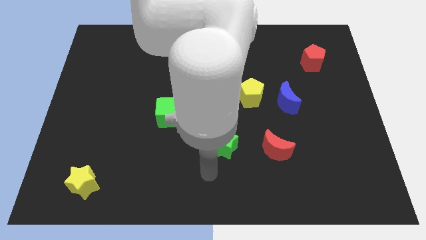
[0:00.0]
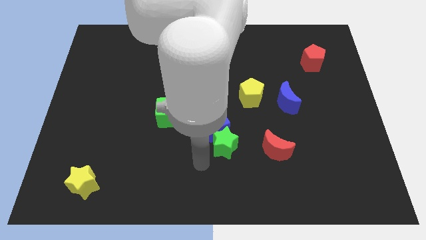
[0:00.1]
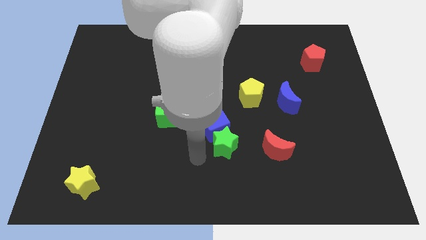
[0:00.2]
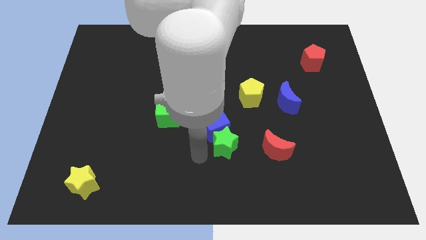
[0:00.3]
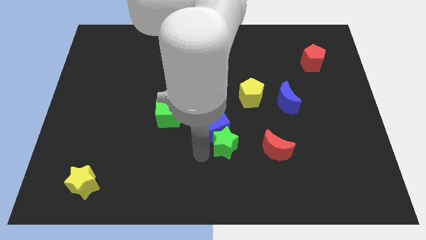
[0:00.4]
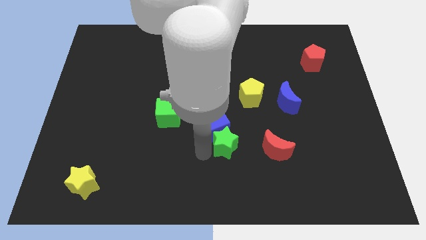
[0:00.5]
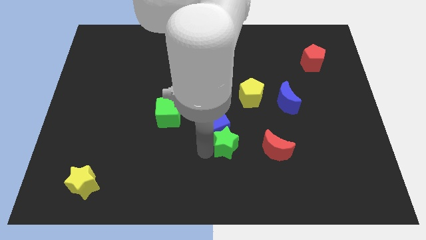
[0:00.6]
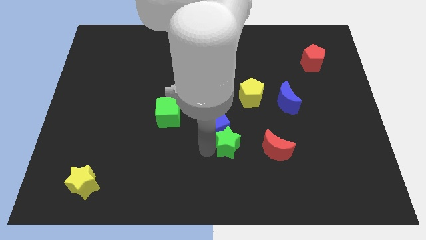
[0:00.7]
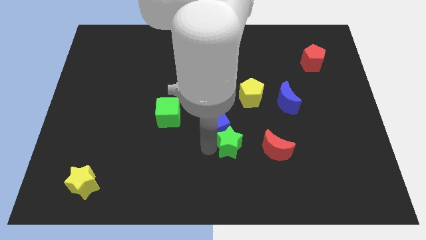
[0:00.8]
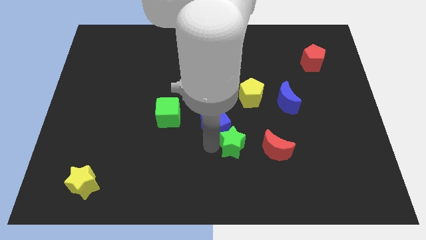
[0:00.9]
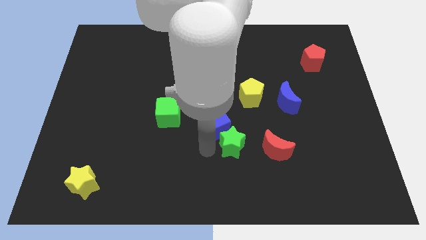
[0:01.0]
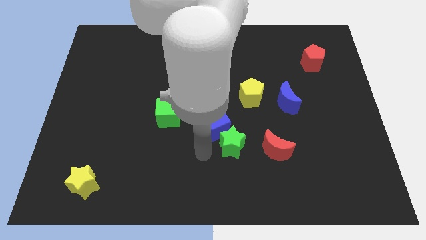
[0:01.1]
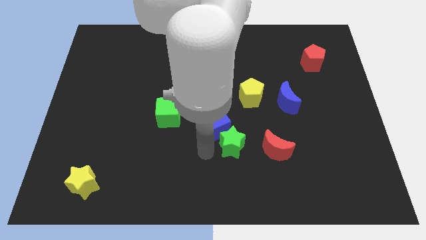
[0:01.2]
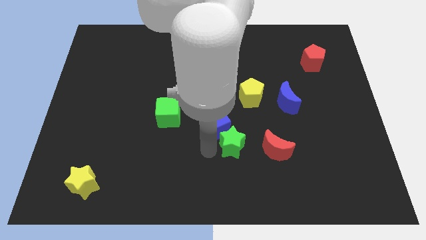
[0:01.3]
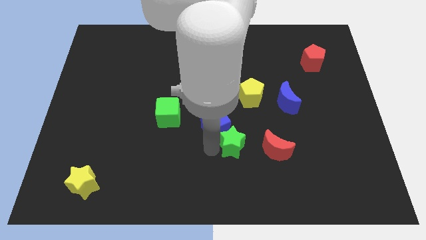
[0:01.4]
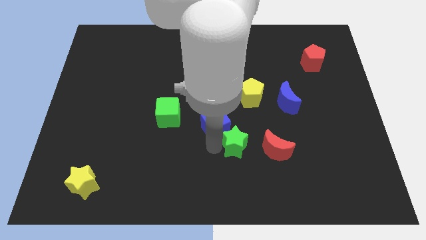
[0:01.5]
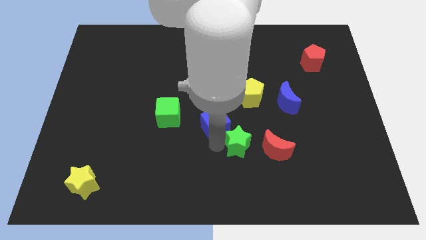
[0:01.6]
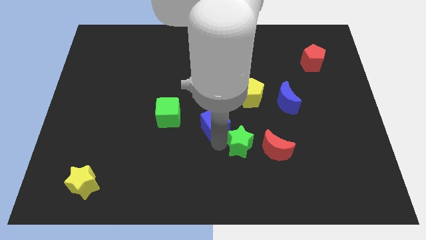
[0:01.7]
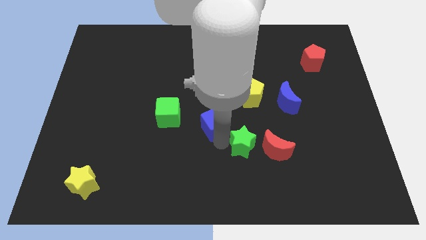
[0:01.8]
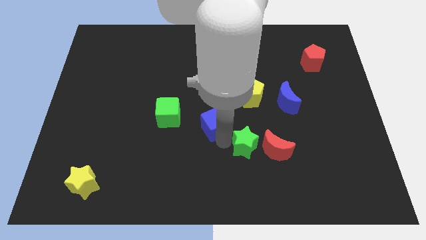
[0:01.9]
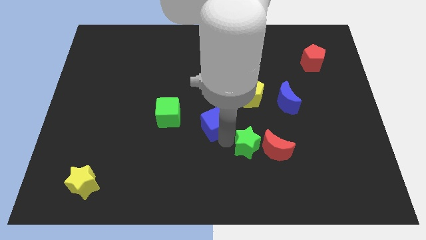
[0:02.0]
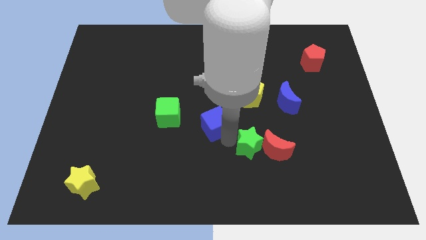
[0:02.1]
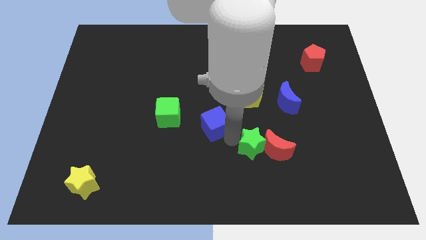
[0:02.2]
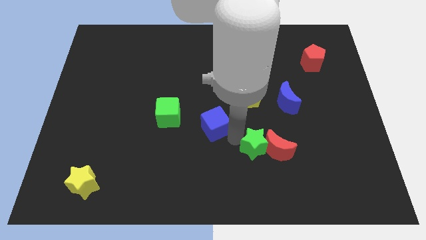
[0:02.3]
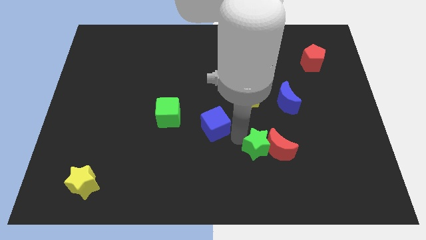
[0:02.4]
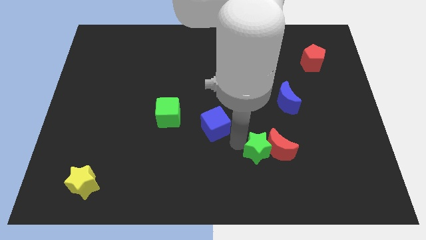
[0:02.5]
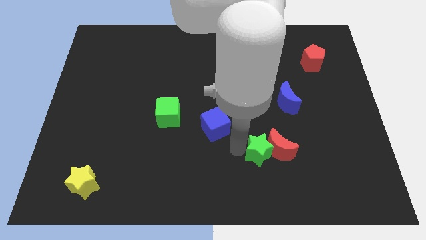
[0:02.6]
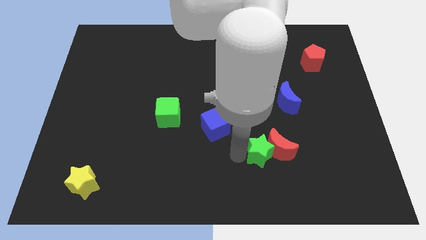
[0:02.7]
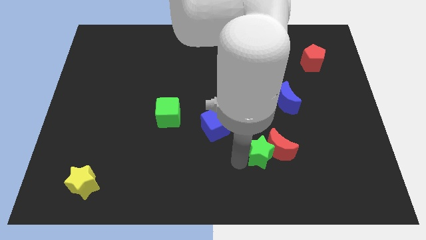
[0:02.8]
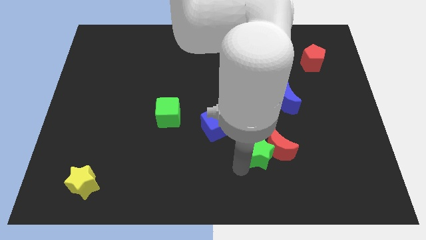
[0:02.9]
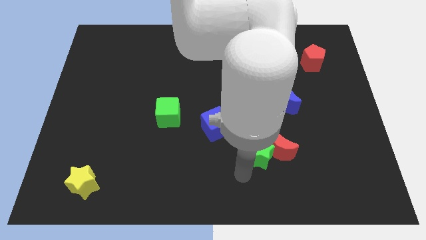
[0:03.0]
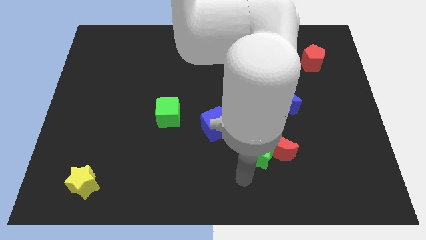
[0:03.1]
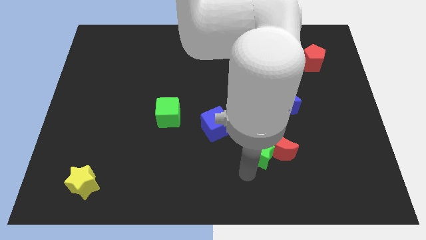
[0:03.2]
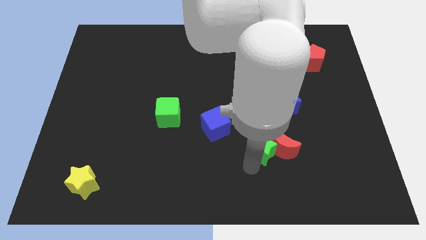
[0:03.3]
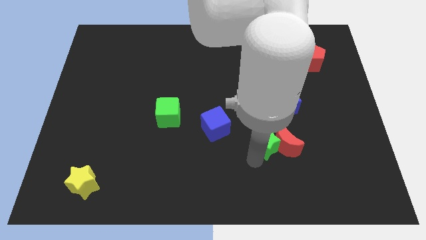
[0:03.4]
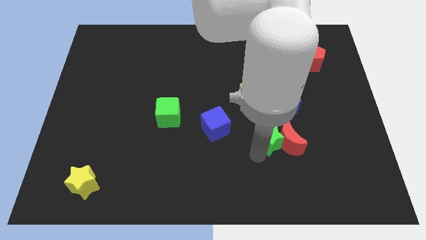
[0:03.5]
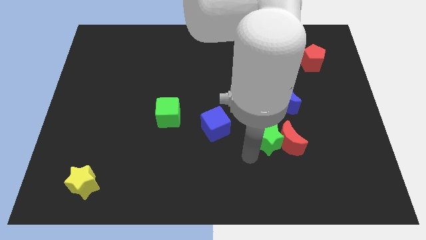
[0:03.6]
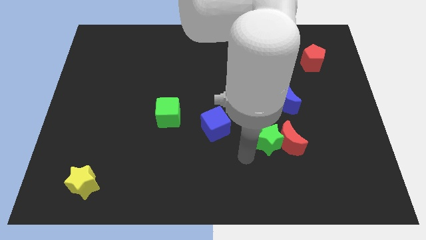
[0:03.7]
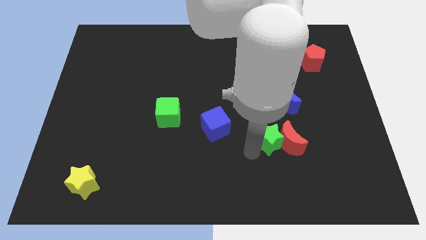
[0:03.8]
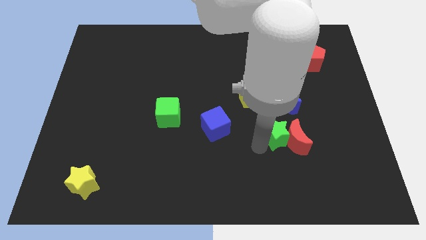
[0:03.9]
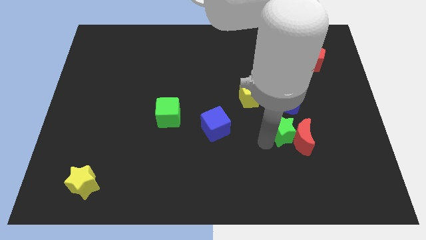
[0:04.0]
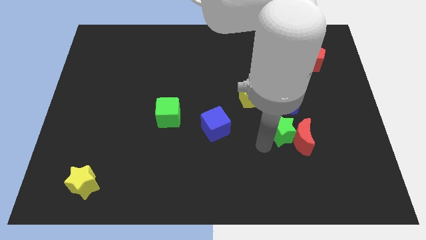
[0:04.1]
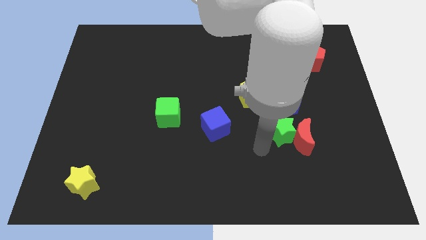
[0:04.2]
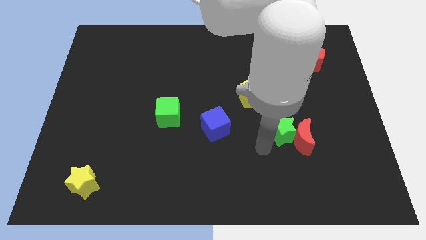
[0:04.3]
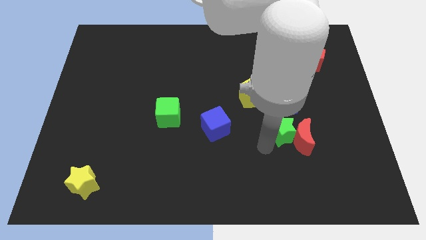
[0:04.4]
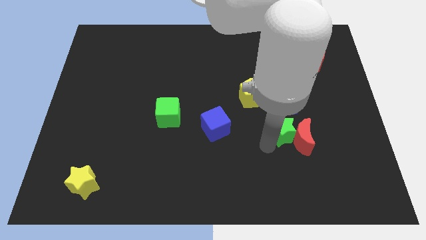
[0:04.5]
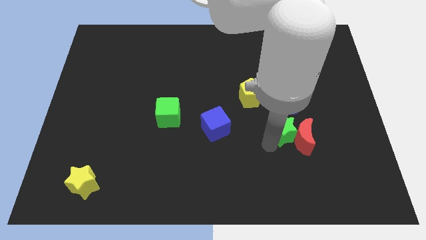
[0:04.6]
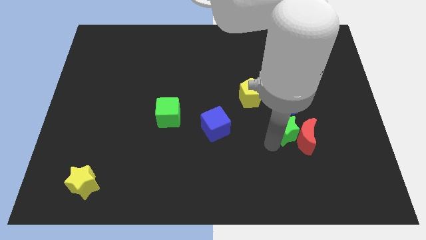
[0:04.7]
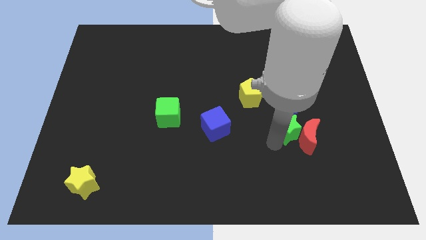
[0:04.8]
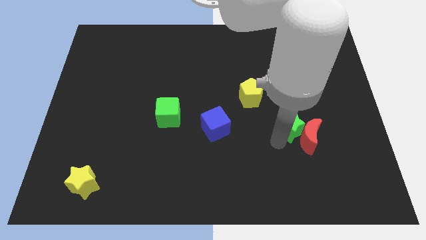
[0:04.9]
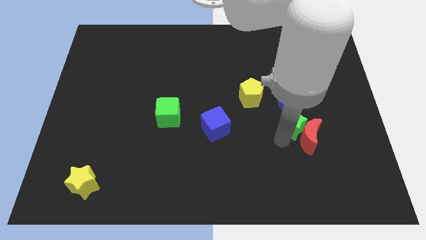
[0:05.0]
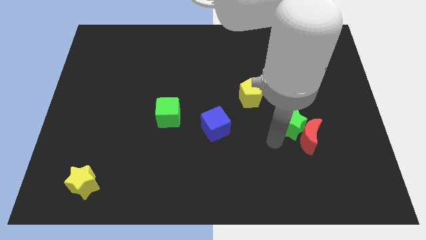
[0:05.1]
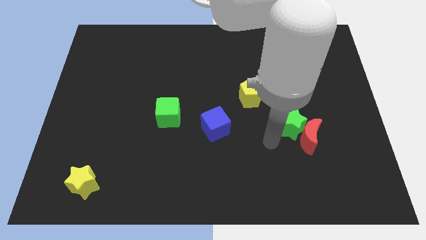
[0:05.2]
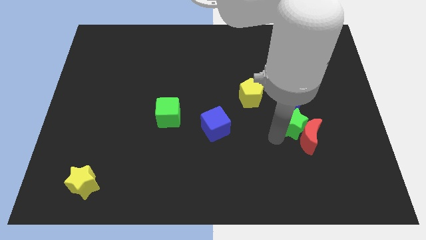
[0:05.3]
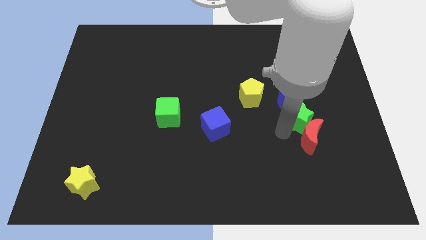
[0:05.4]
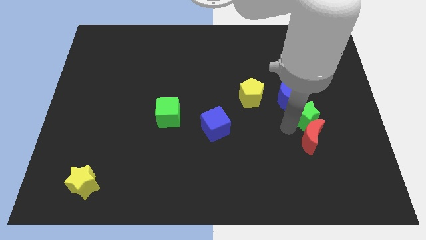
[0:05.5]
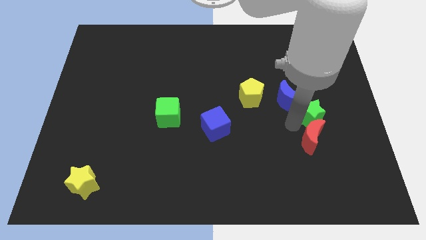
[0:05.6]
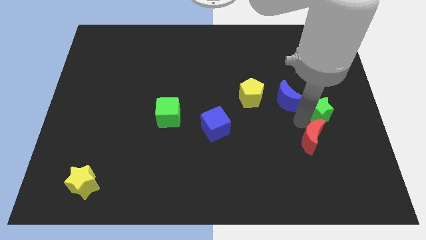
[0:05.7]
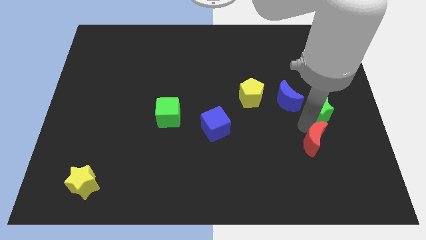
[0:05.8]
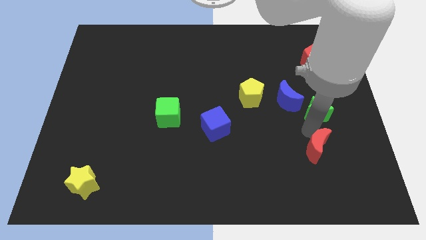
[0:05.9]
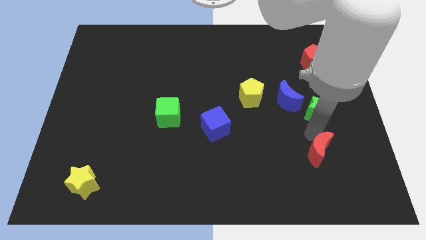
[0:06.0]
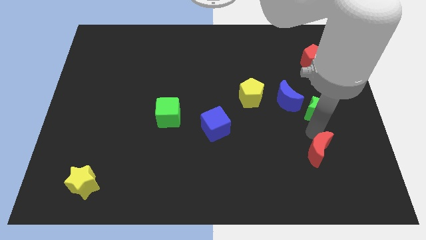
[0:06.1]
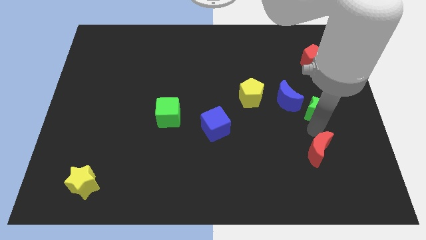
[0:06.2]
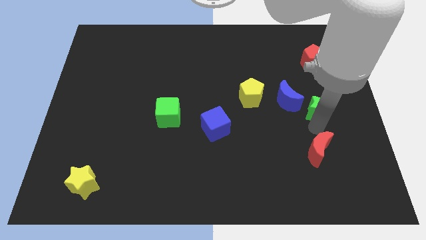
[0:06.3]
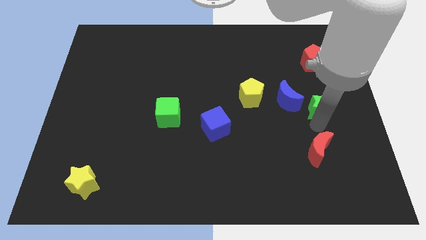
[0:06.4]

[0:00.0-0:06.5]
push the green star to the bottom side of the red pentagon

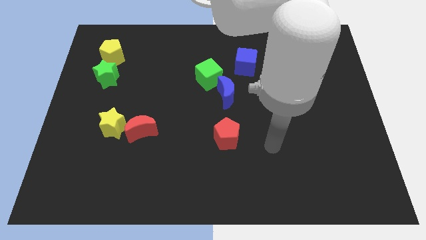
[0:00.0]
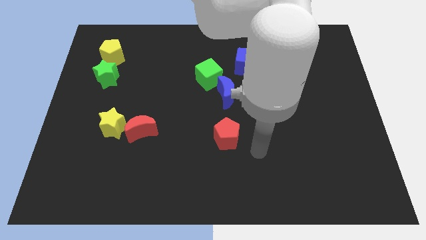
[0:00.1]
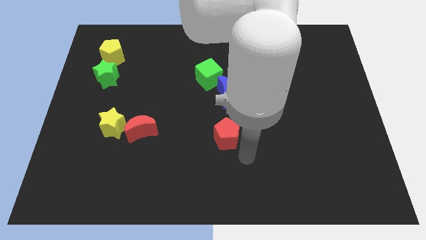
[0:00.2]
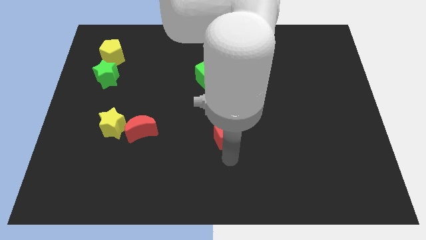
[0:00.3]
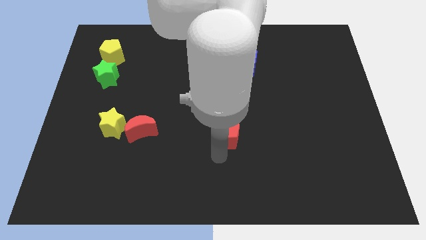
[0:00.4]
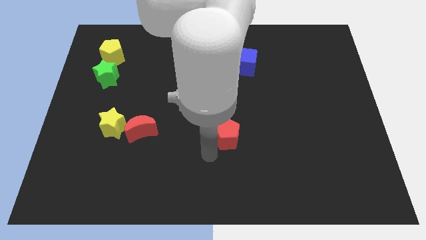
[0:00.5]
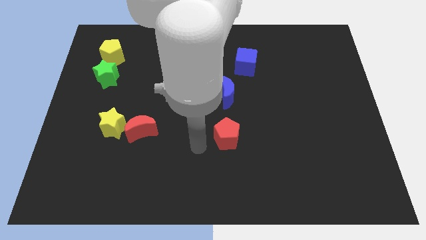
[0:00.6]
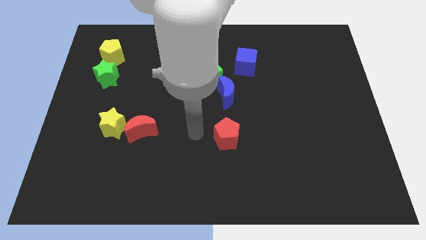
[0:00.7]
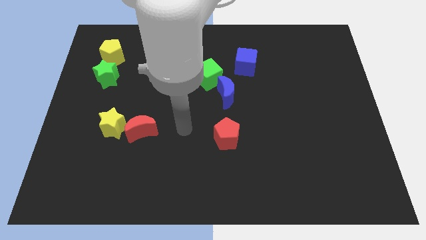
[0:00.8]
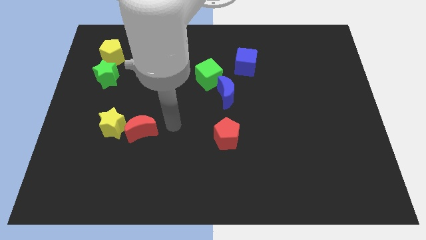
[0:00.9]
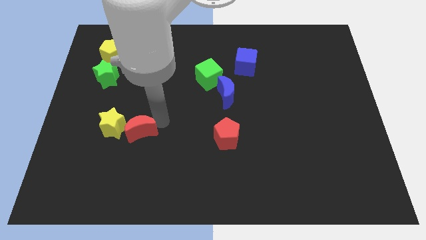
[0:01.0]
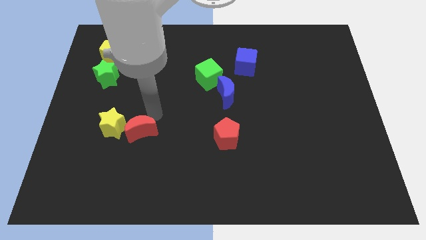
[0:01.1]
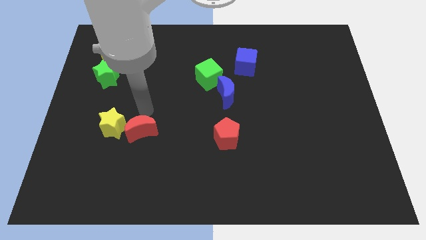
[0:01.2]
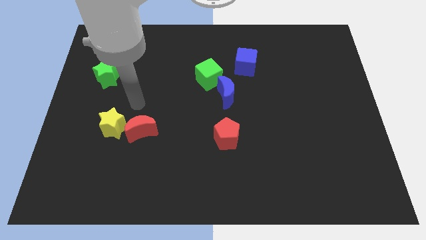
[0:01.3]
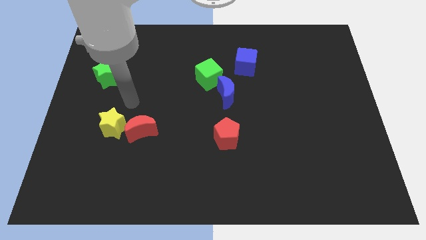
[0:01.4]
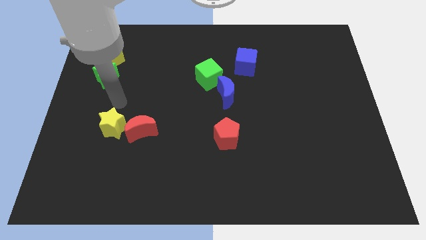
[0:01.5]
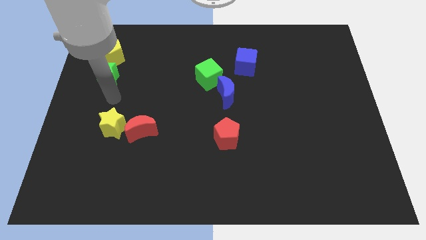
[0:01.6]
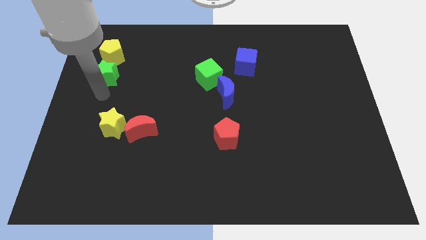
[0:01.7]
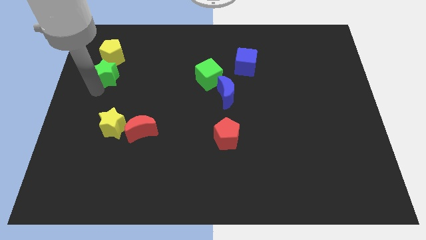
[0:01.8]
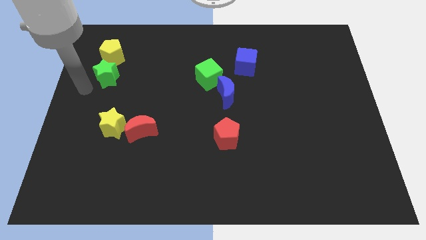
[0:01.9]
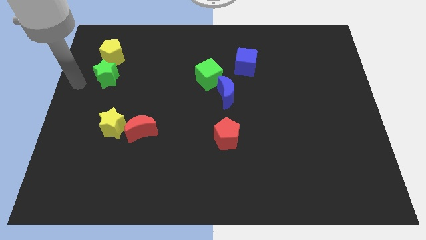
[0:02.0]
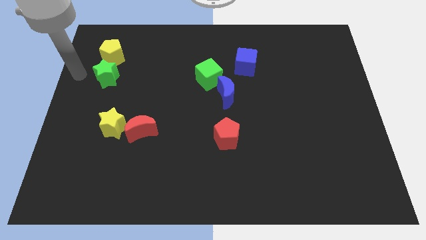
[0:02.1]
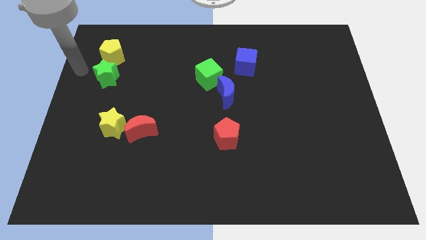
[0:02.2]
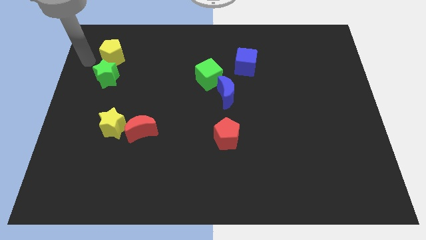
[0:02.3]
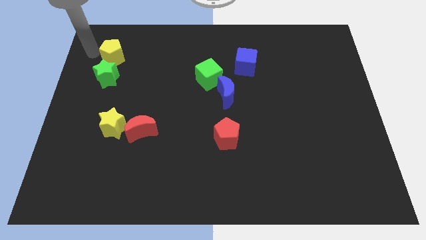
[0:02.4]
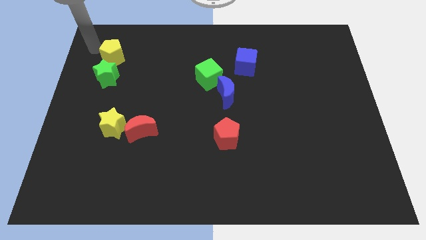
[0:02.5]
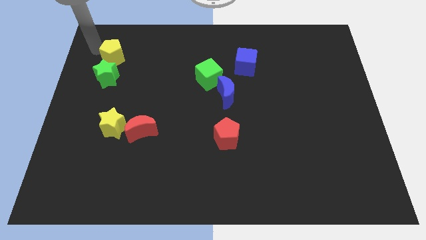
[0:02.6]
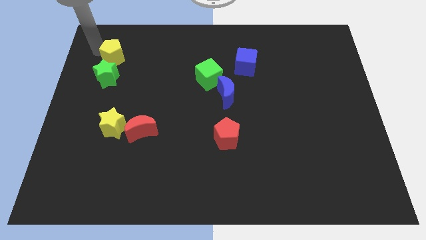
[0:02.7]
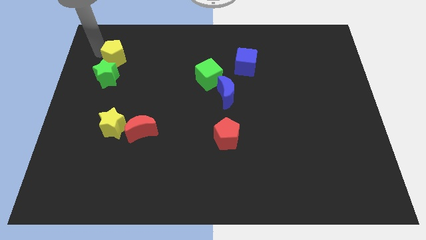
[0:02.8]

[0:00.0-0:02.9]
push the yellow pentagon diagonally up and to the right of the green star
